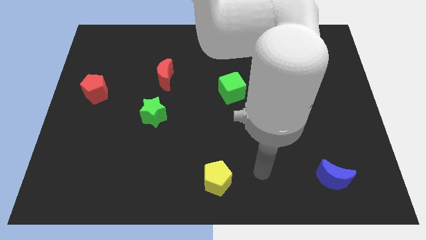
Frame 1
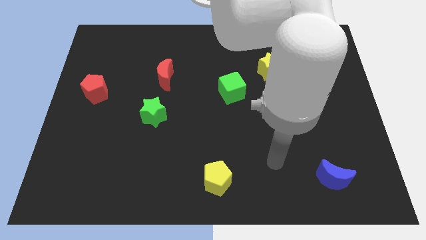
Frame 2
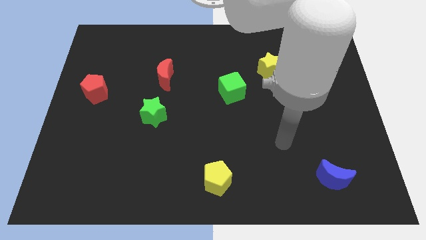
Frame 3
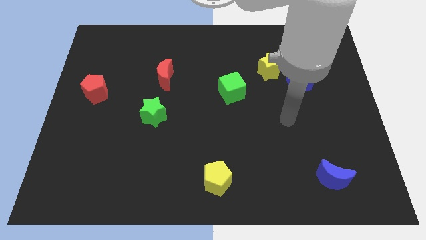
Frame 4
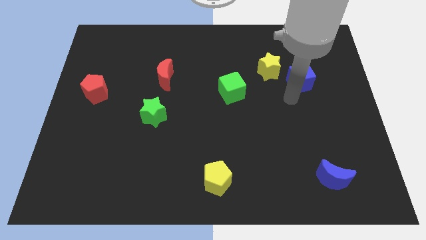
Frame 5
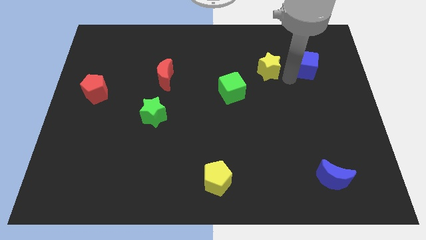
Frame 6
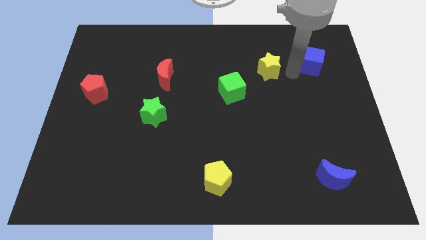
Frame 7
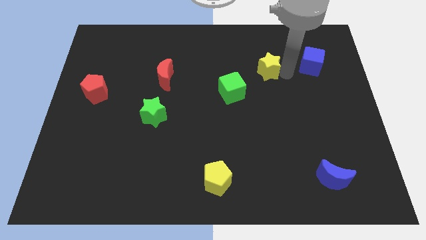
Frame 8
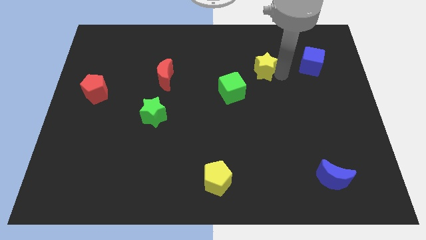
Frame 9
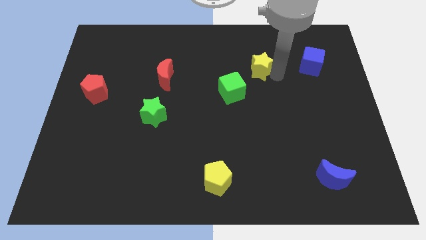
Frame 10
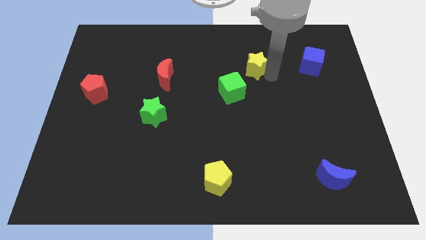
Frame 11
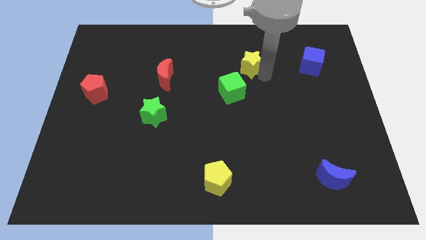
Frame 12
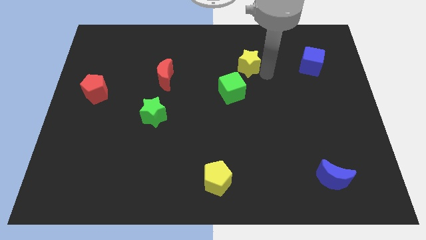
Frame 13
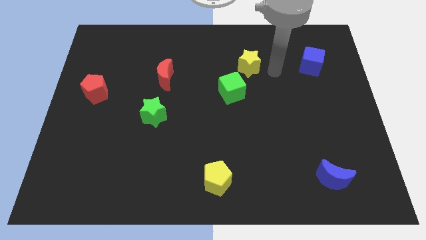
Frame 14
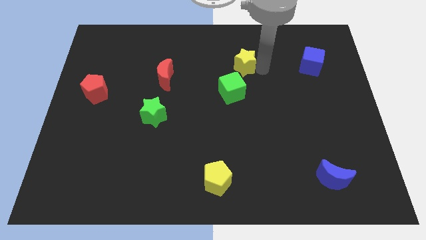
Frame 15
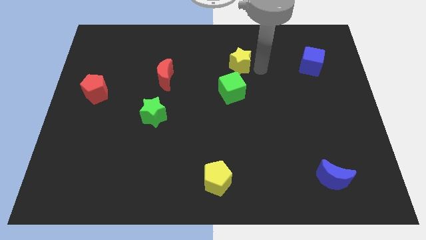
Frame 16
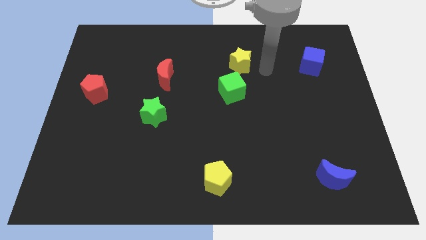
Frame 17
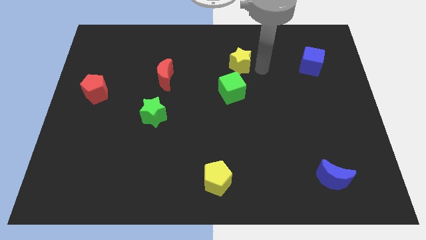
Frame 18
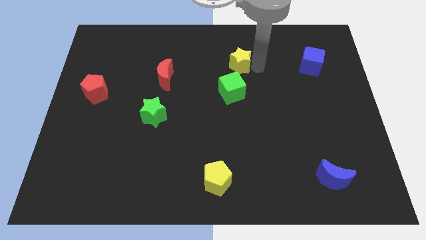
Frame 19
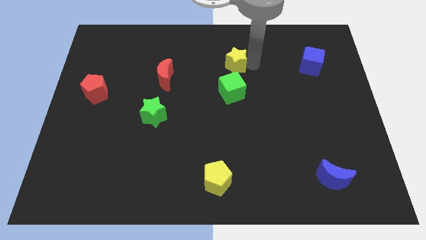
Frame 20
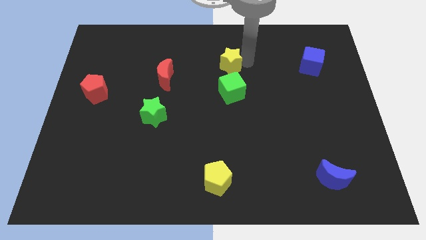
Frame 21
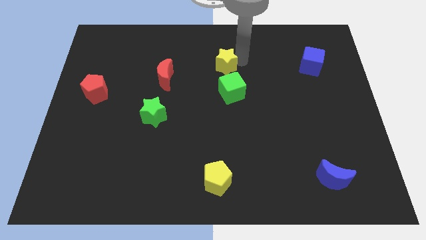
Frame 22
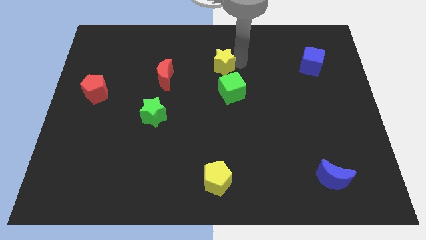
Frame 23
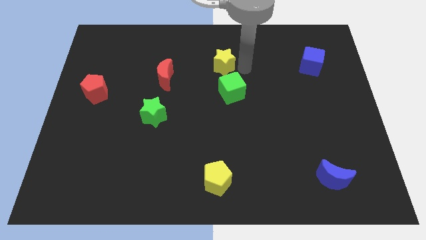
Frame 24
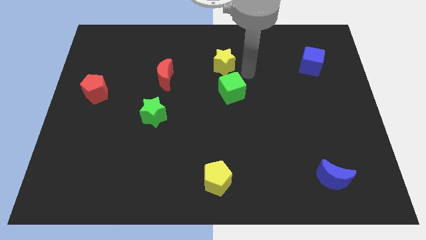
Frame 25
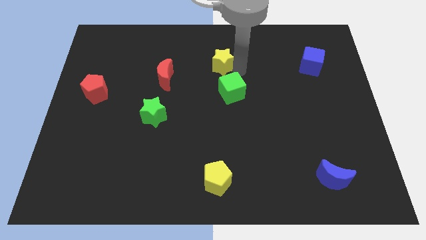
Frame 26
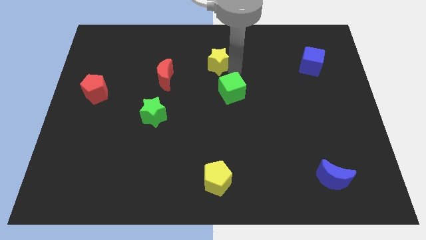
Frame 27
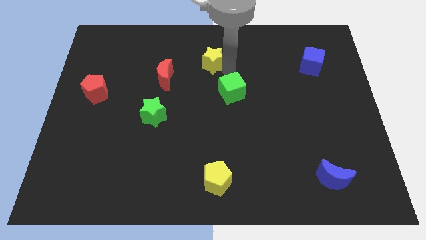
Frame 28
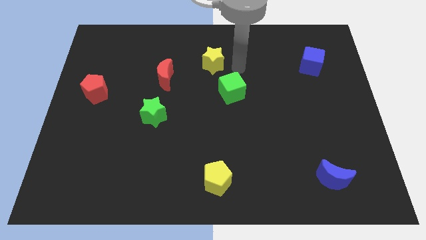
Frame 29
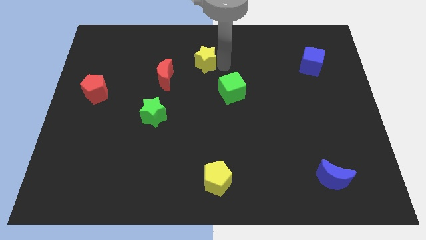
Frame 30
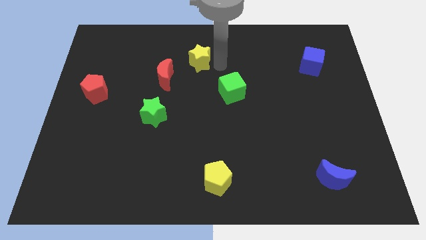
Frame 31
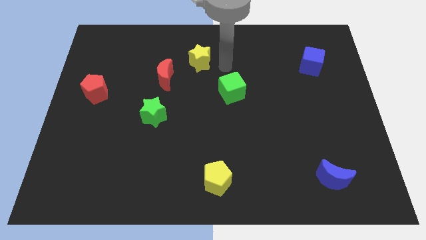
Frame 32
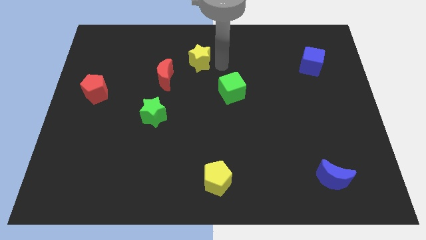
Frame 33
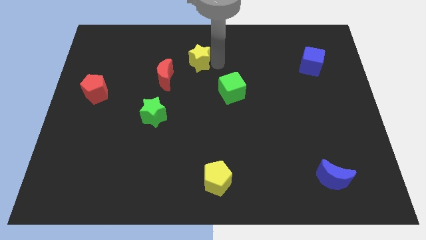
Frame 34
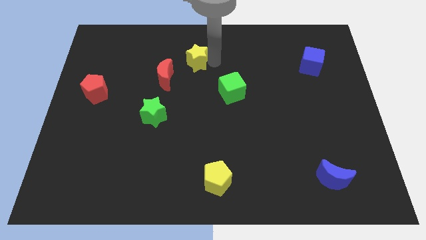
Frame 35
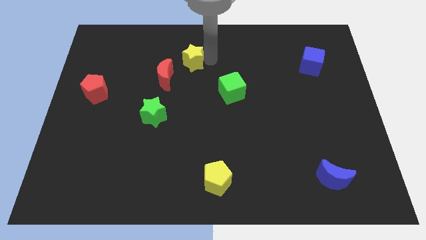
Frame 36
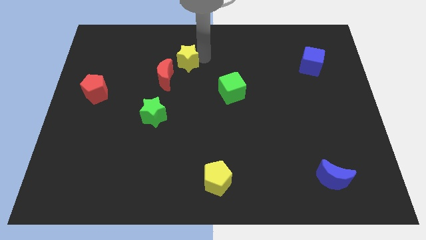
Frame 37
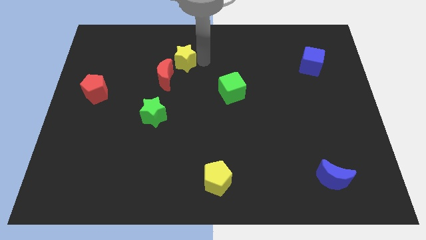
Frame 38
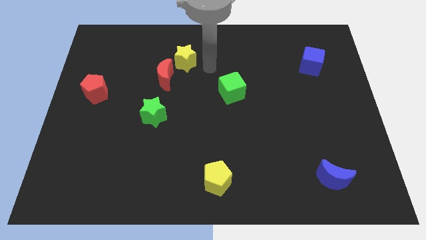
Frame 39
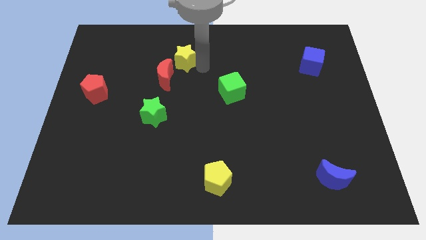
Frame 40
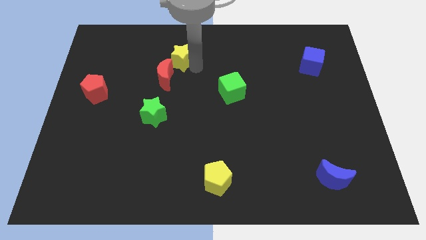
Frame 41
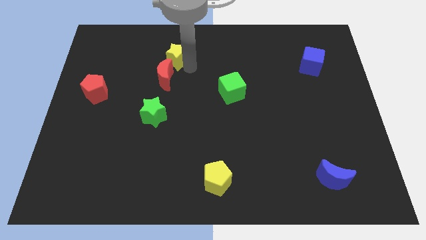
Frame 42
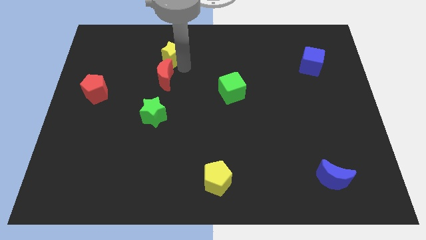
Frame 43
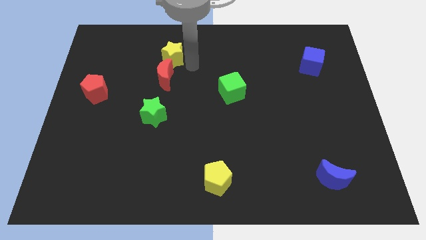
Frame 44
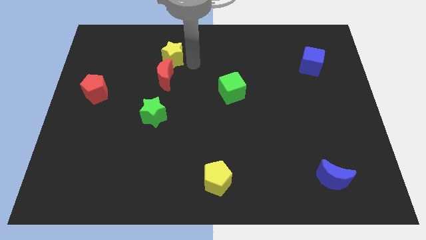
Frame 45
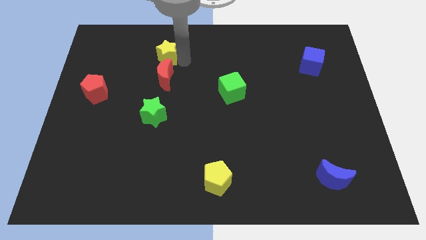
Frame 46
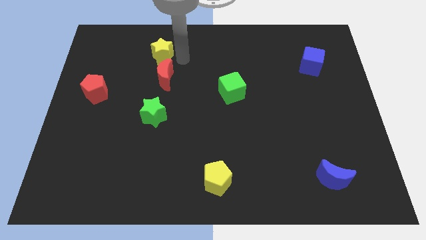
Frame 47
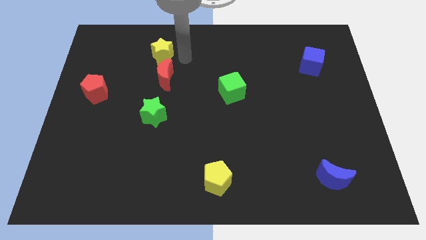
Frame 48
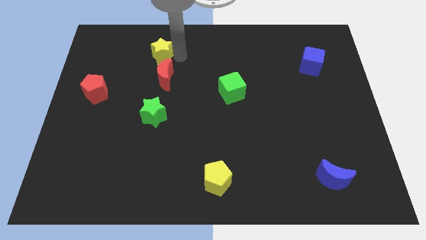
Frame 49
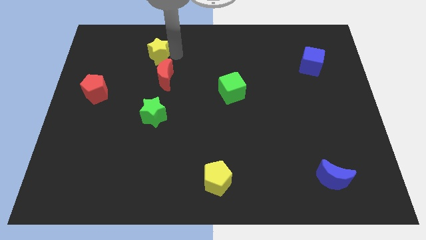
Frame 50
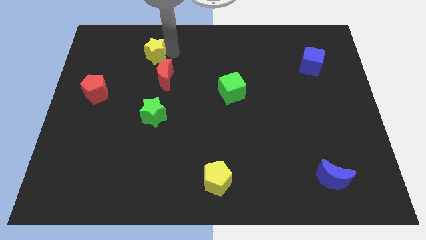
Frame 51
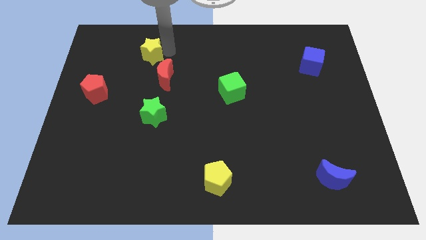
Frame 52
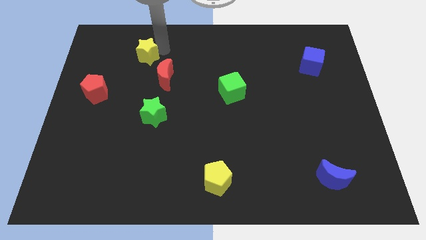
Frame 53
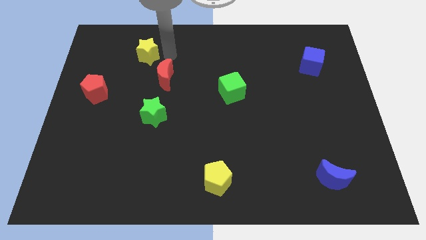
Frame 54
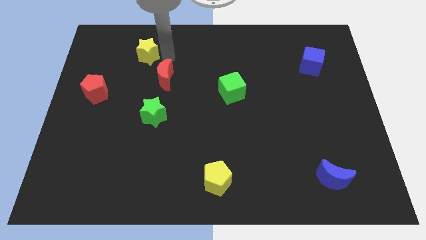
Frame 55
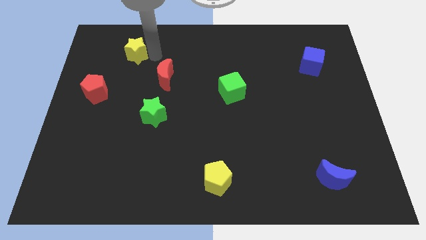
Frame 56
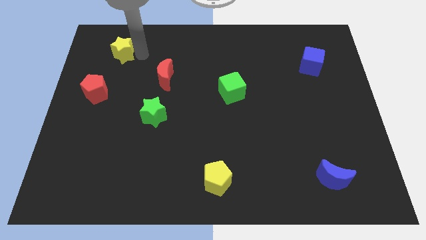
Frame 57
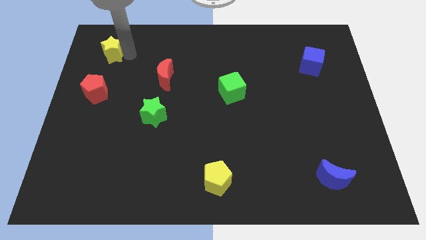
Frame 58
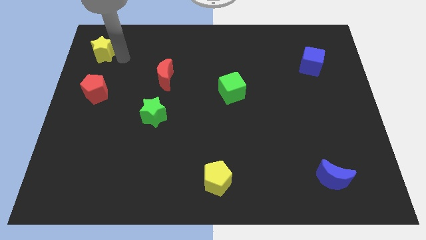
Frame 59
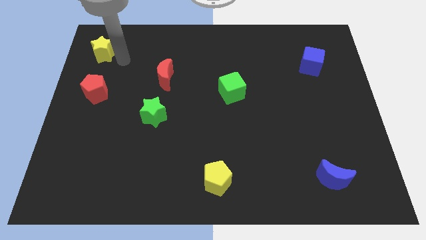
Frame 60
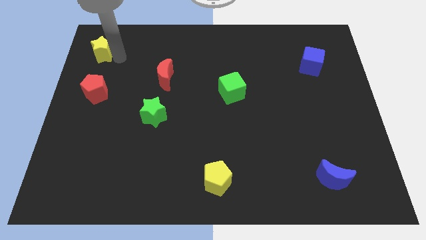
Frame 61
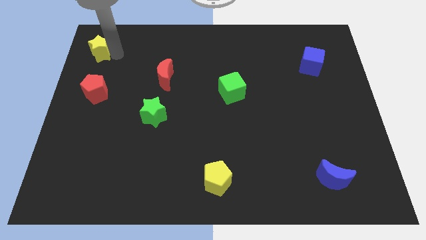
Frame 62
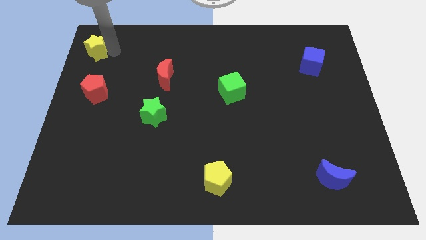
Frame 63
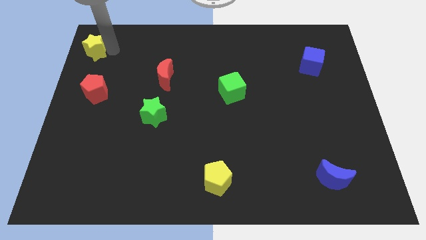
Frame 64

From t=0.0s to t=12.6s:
put the yellow star to the upper left corner

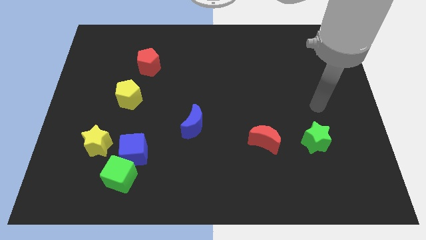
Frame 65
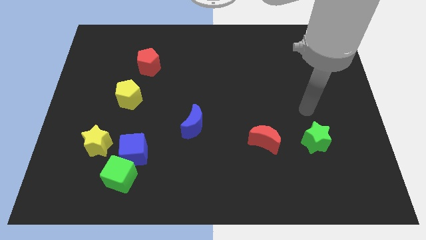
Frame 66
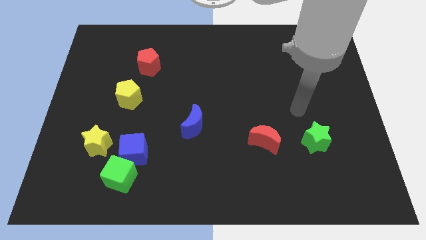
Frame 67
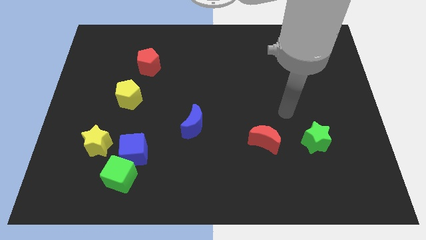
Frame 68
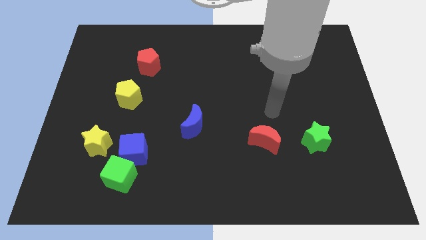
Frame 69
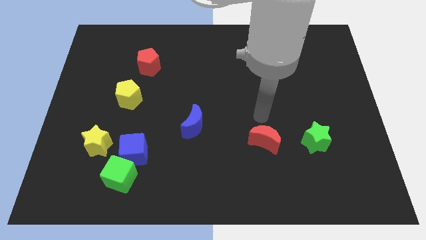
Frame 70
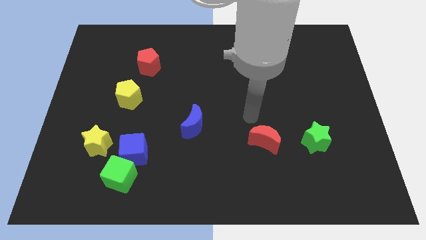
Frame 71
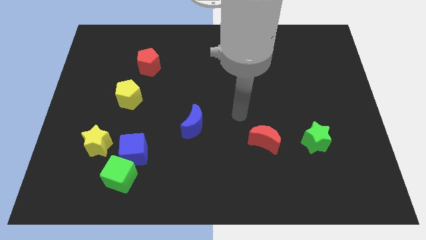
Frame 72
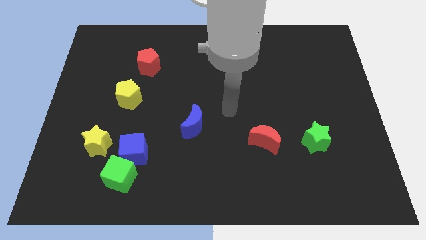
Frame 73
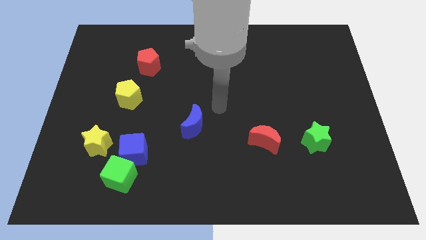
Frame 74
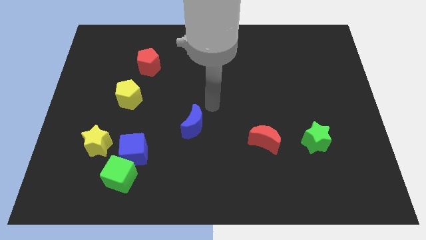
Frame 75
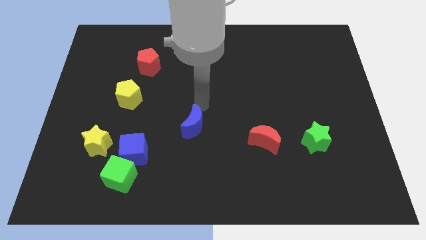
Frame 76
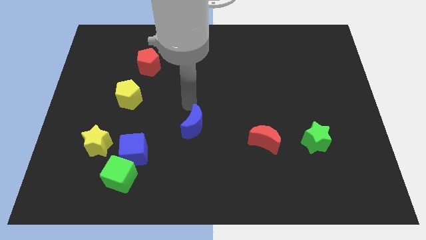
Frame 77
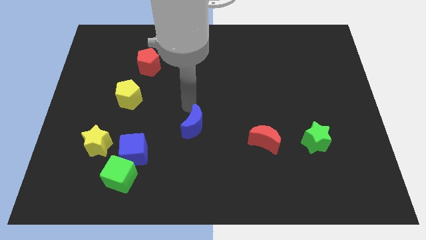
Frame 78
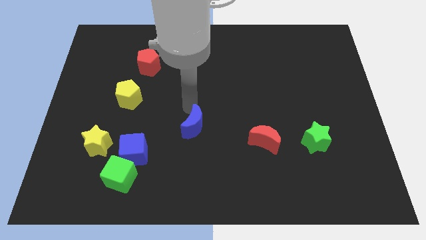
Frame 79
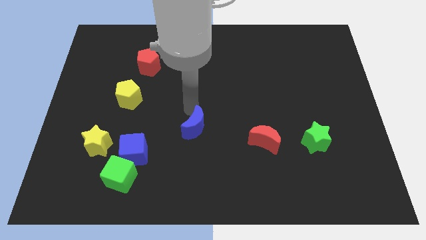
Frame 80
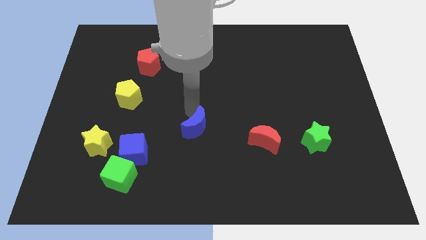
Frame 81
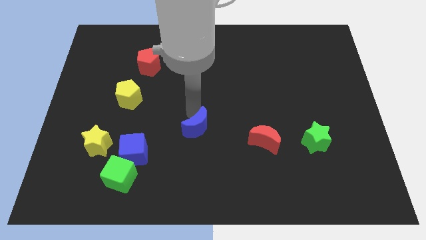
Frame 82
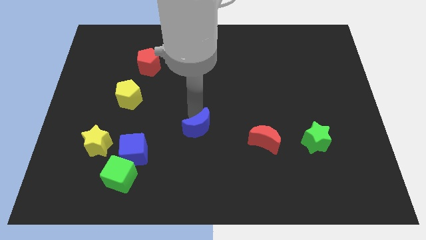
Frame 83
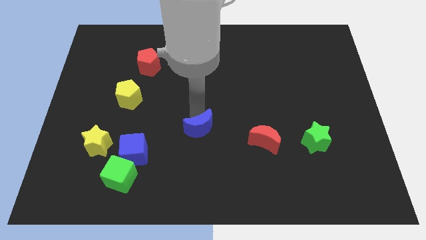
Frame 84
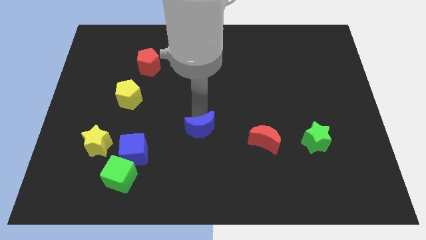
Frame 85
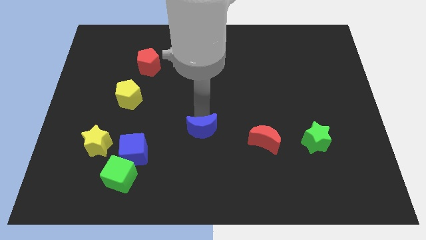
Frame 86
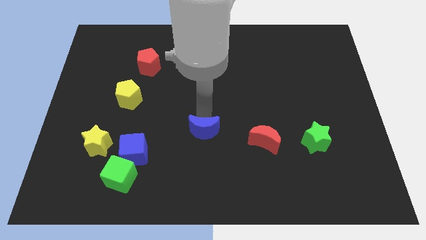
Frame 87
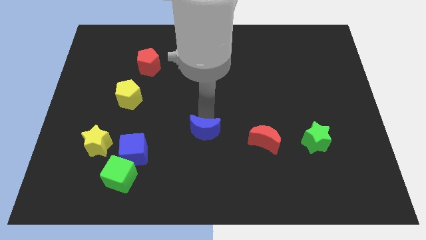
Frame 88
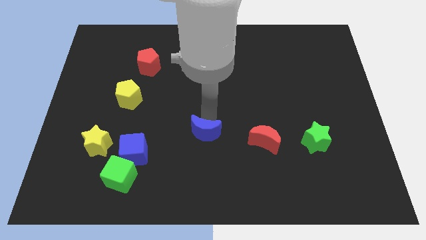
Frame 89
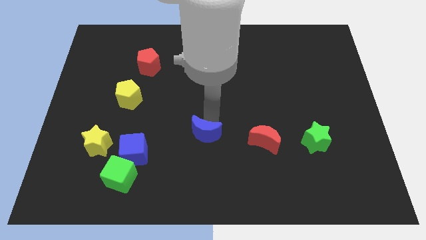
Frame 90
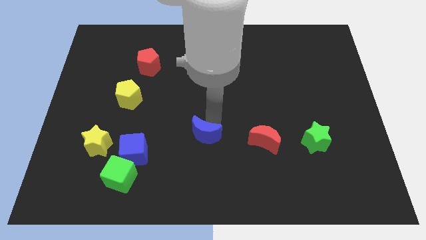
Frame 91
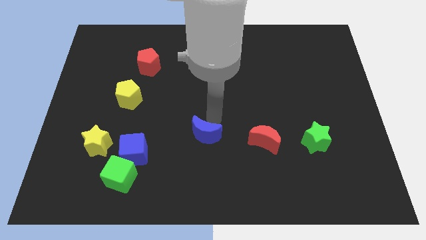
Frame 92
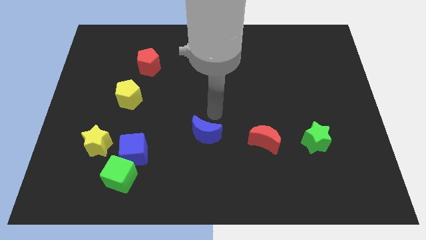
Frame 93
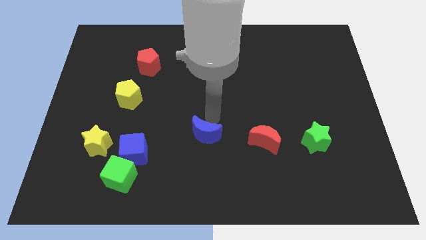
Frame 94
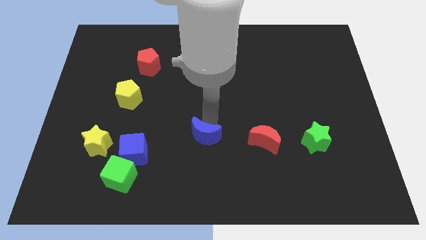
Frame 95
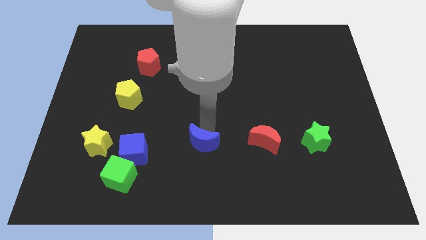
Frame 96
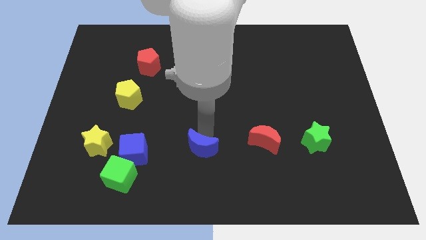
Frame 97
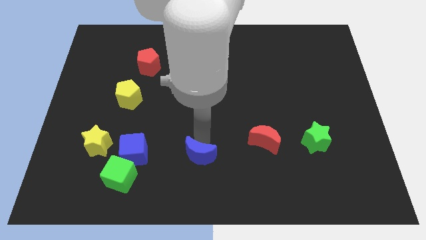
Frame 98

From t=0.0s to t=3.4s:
push the blue moon to the bottom
